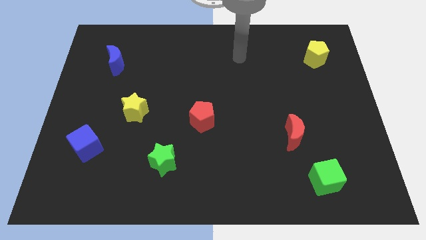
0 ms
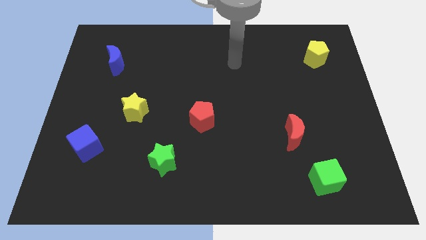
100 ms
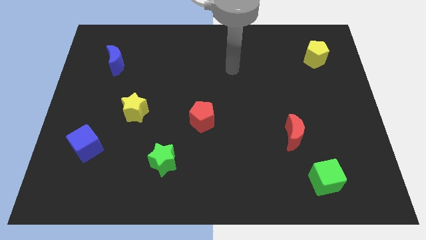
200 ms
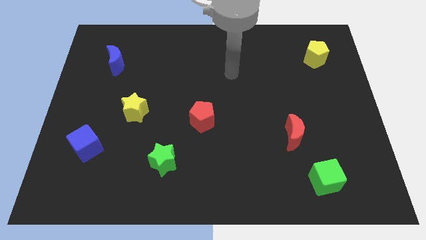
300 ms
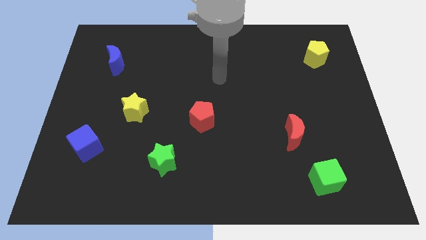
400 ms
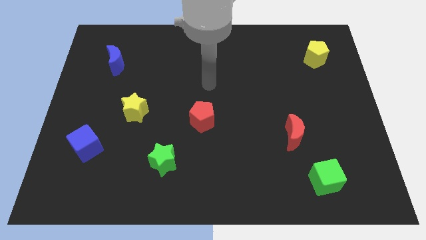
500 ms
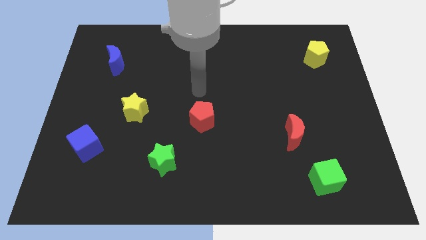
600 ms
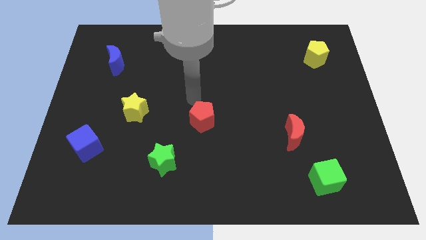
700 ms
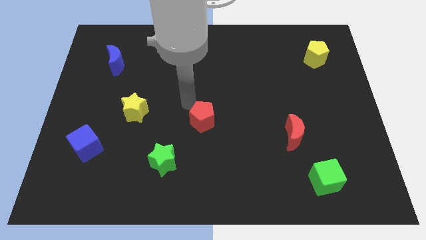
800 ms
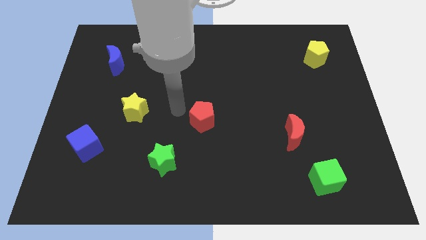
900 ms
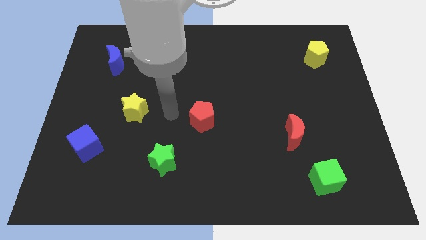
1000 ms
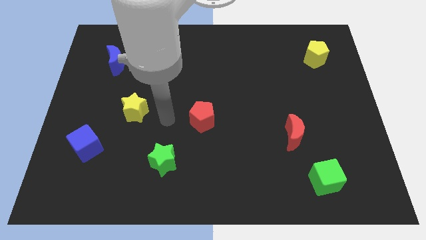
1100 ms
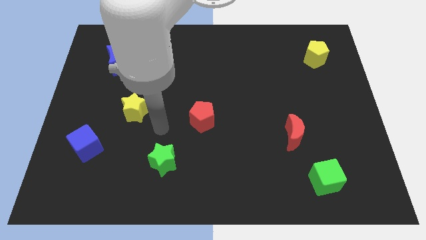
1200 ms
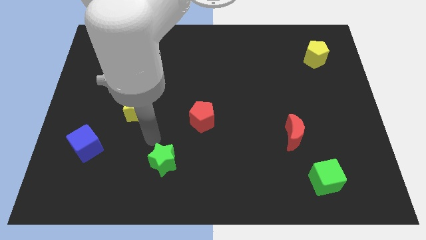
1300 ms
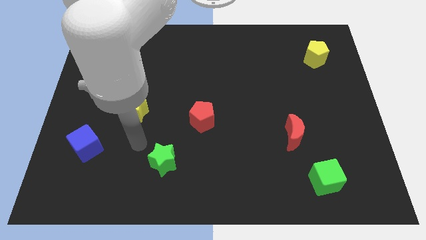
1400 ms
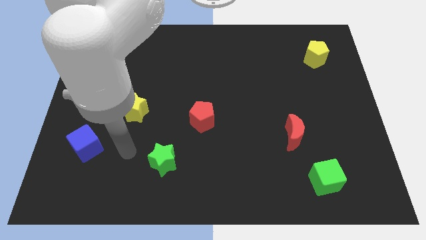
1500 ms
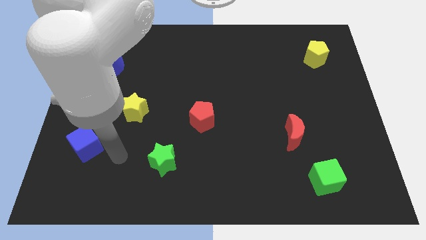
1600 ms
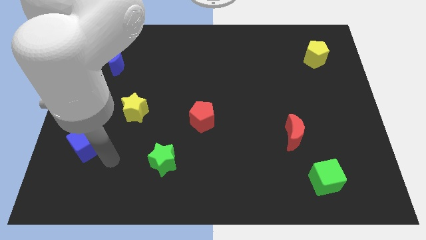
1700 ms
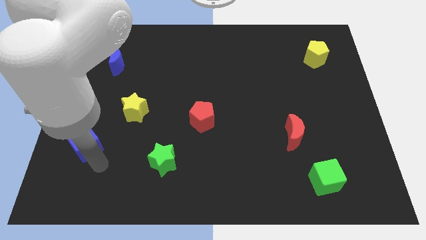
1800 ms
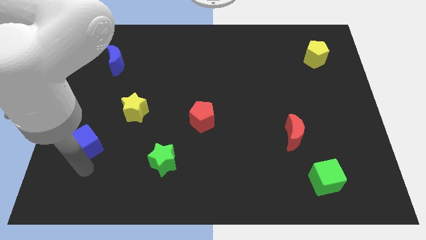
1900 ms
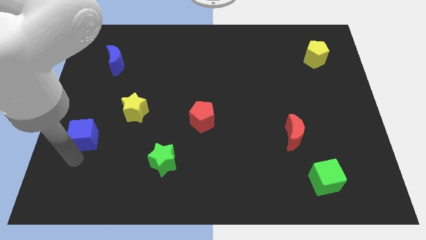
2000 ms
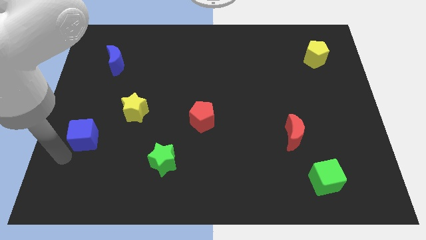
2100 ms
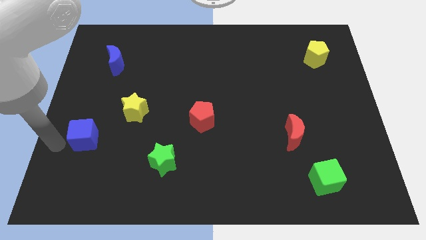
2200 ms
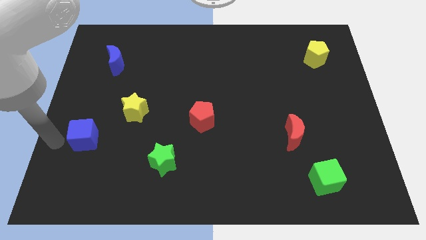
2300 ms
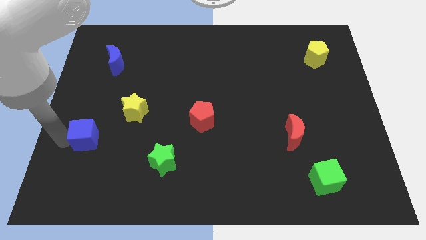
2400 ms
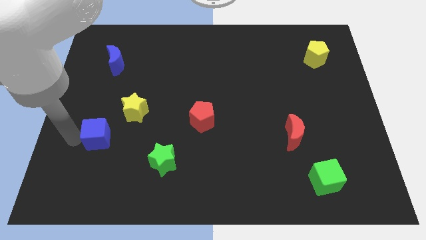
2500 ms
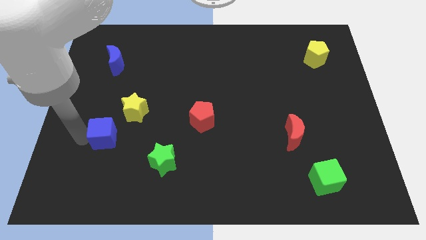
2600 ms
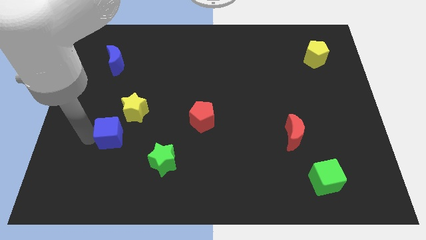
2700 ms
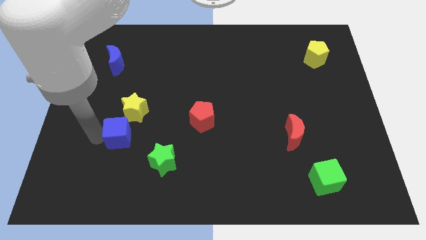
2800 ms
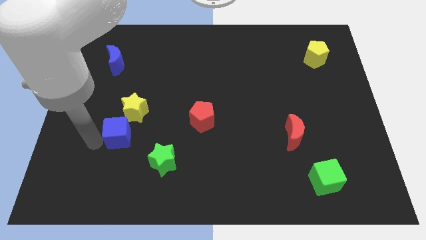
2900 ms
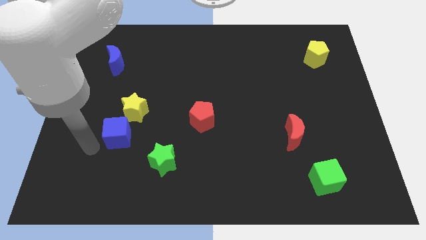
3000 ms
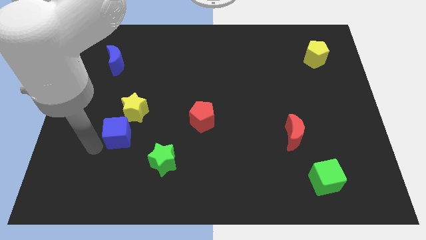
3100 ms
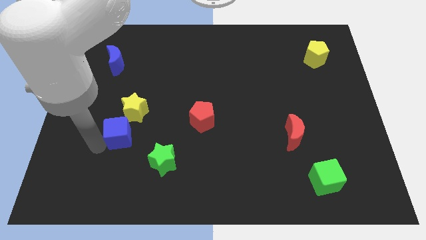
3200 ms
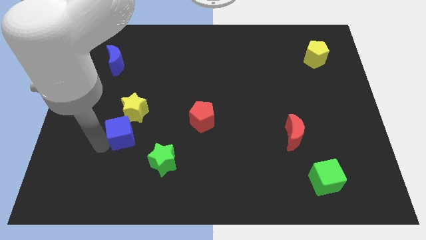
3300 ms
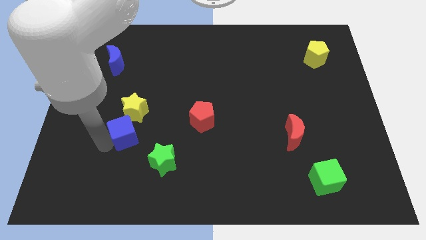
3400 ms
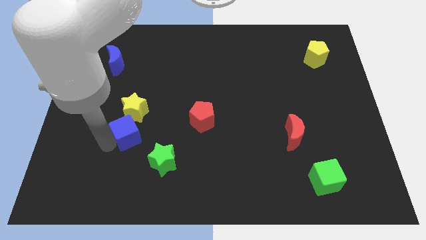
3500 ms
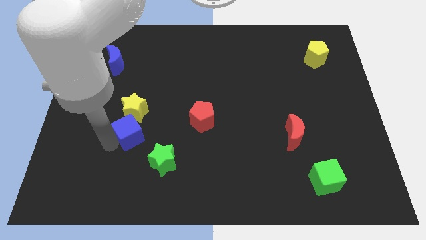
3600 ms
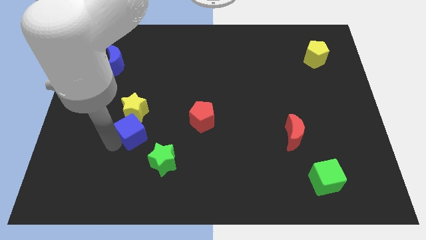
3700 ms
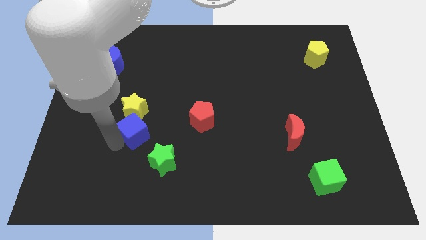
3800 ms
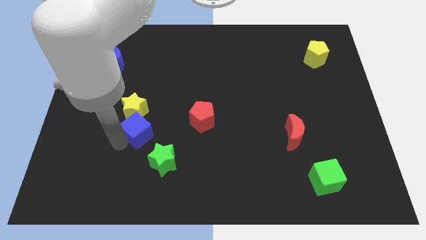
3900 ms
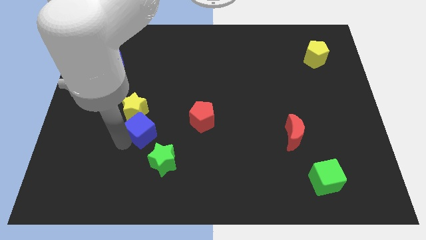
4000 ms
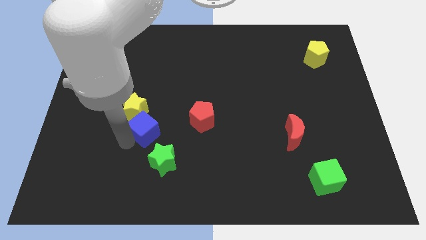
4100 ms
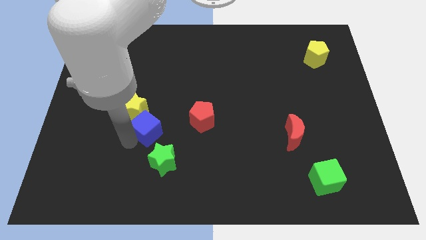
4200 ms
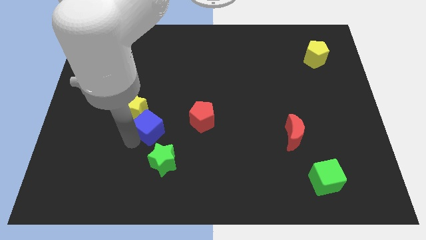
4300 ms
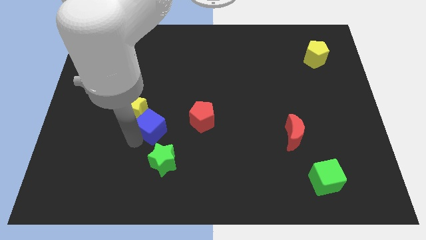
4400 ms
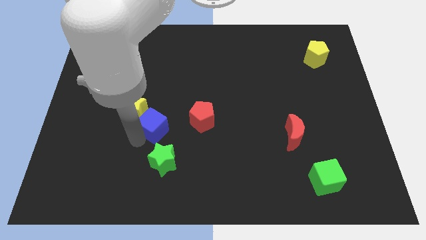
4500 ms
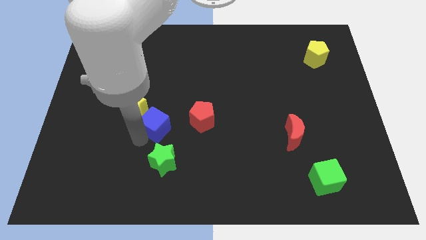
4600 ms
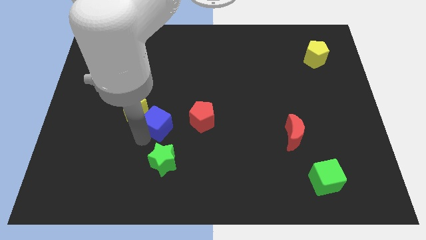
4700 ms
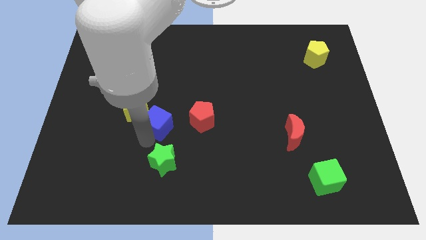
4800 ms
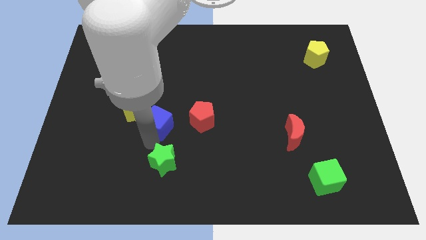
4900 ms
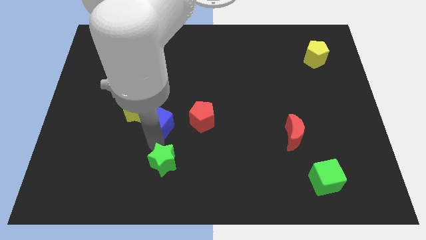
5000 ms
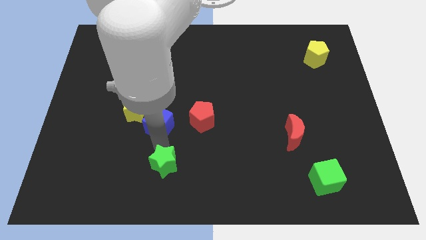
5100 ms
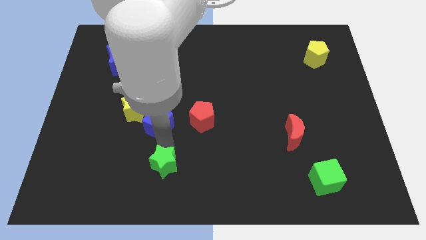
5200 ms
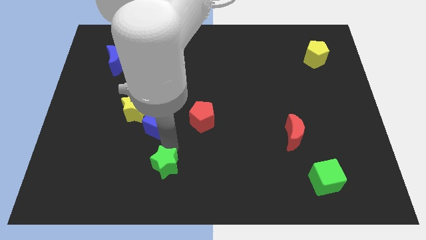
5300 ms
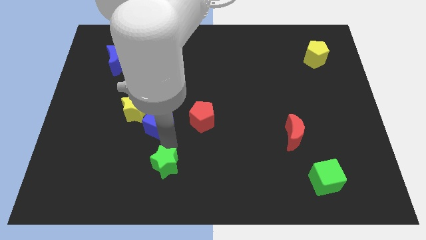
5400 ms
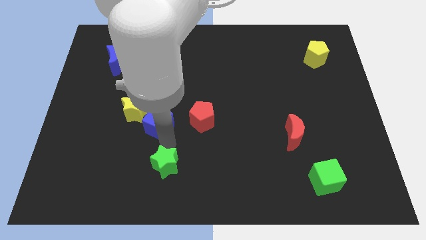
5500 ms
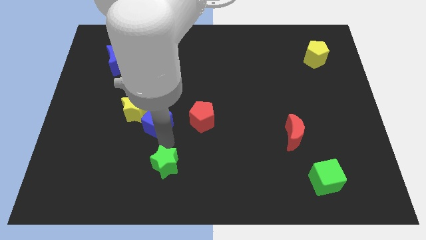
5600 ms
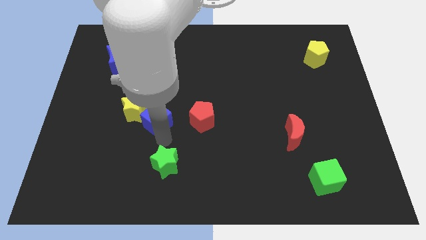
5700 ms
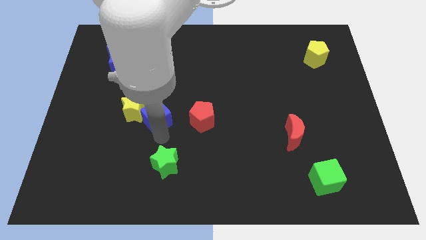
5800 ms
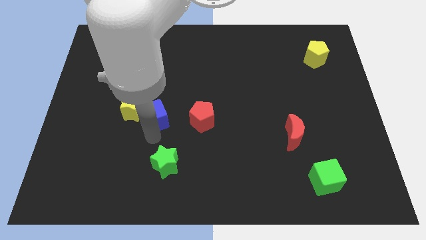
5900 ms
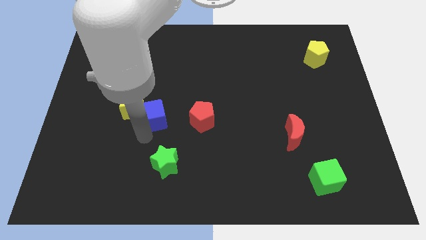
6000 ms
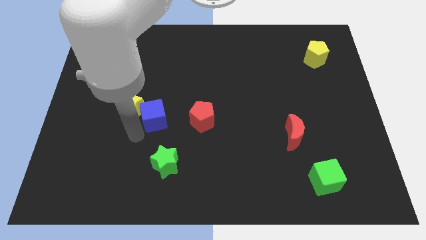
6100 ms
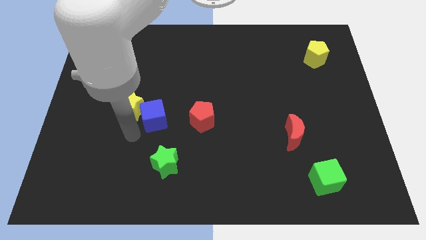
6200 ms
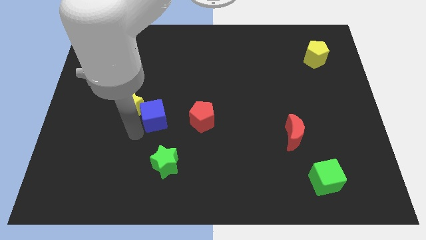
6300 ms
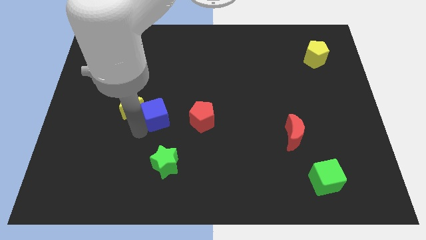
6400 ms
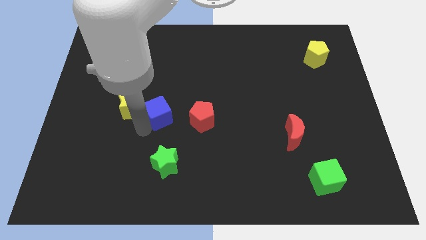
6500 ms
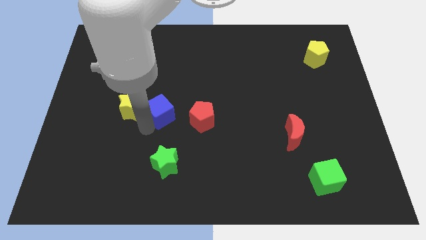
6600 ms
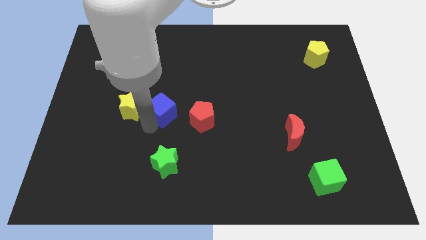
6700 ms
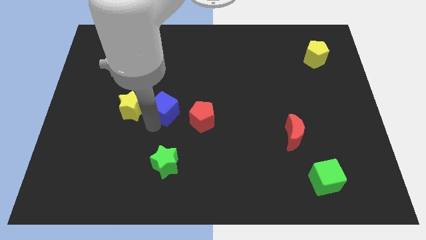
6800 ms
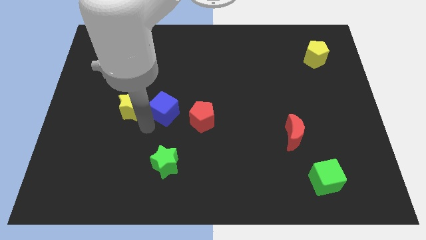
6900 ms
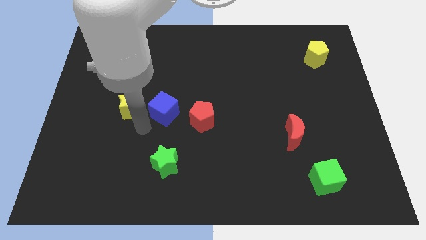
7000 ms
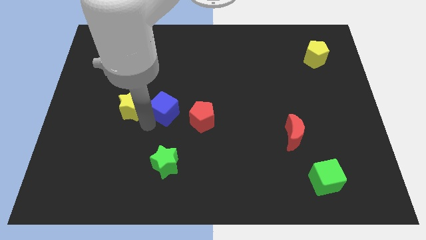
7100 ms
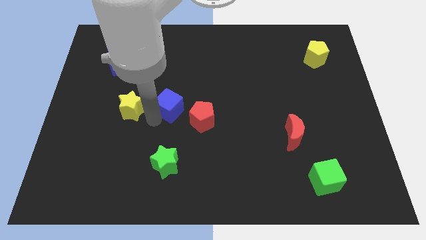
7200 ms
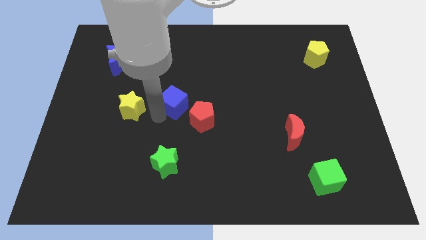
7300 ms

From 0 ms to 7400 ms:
slide the blue cube diagonally upwards and to the right

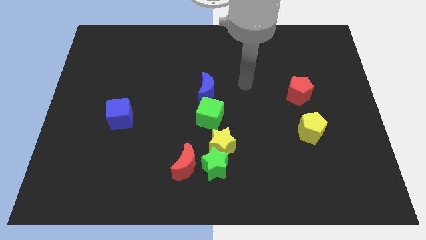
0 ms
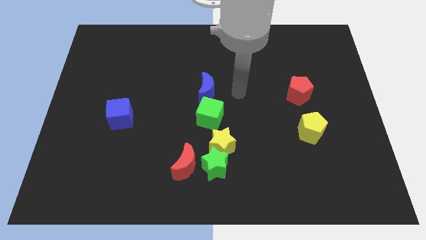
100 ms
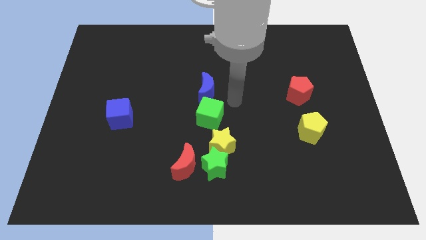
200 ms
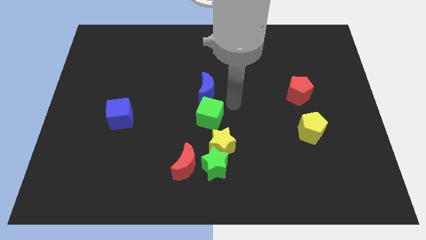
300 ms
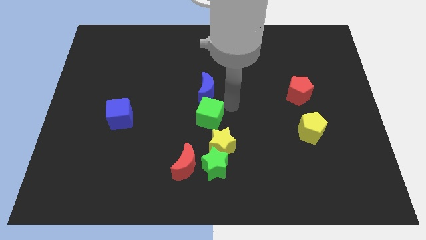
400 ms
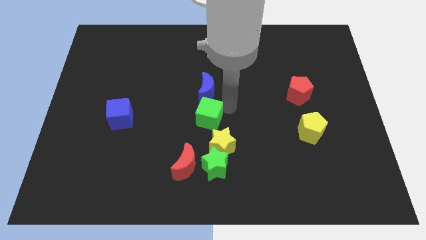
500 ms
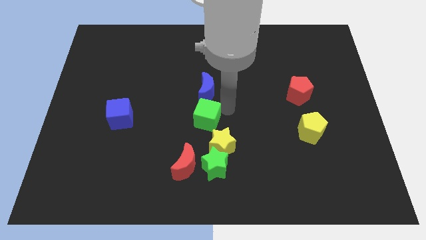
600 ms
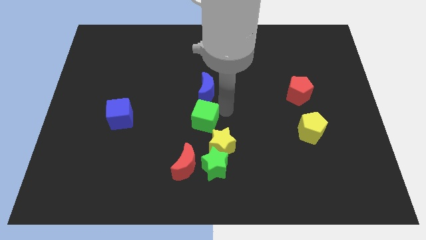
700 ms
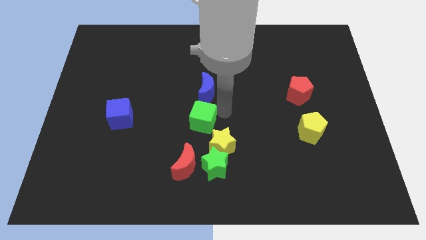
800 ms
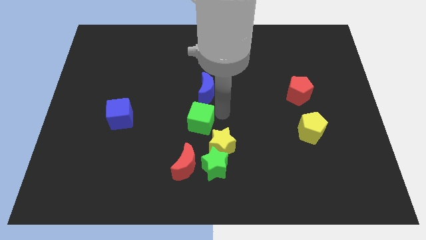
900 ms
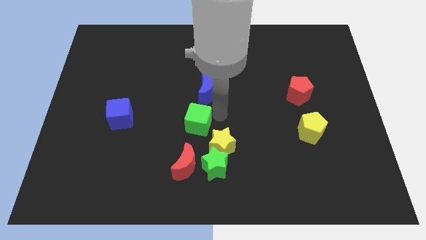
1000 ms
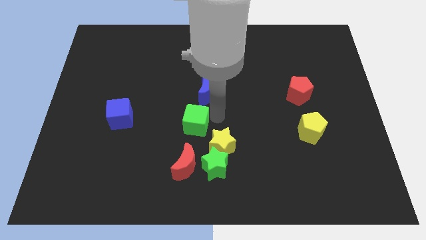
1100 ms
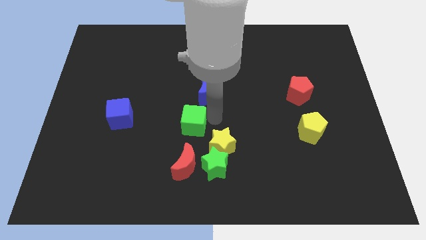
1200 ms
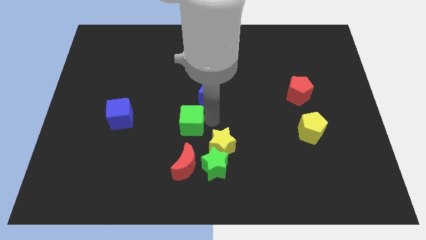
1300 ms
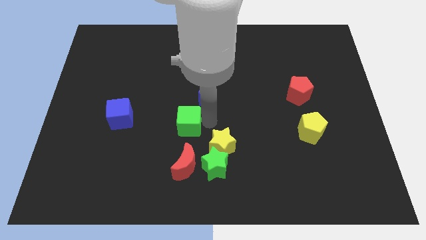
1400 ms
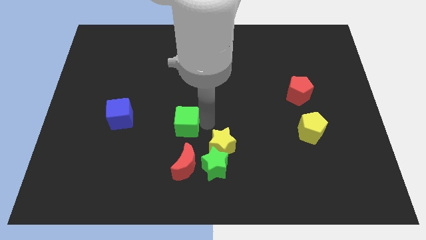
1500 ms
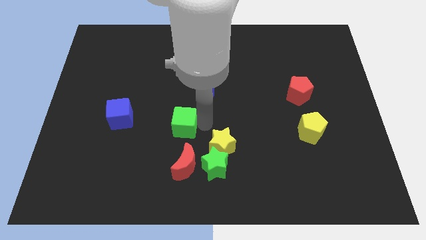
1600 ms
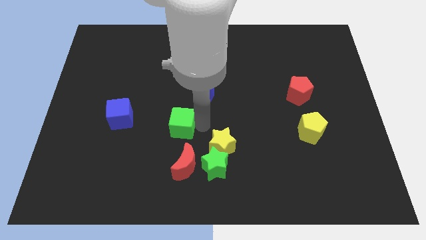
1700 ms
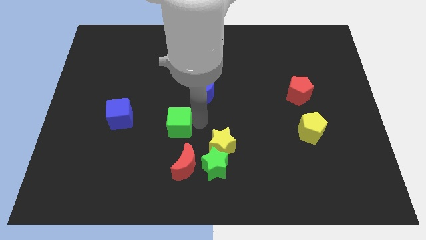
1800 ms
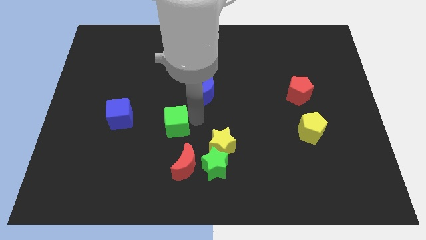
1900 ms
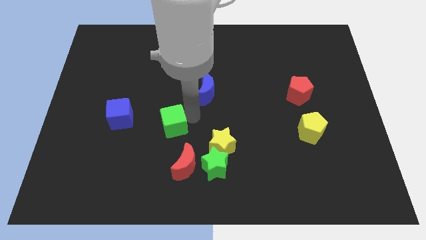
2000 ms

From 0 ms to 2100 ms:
slightly move the green cube diagonally downwards and to the left
